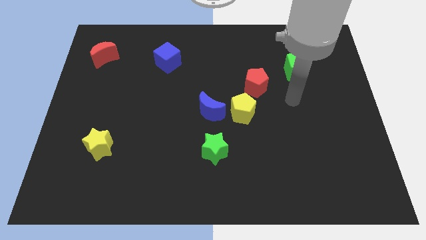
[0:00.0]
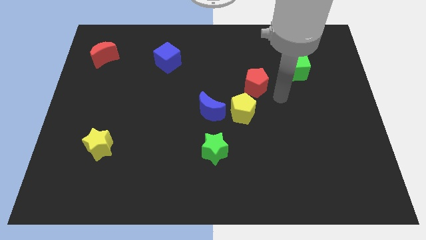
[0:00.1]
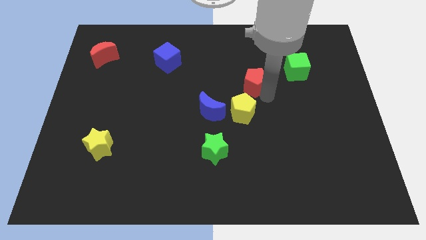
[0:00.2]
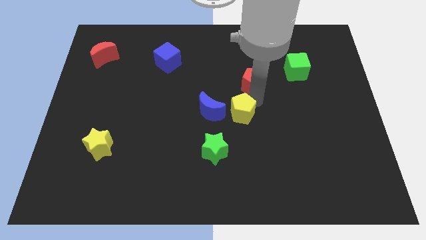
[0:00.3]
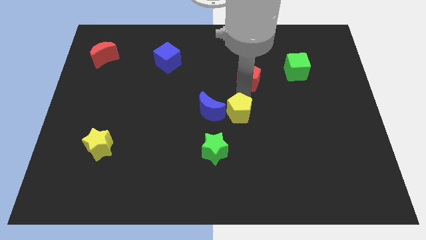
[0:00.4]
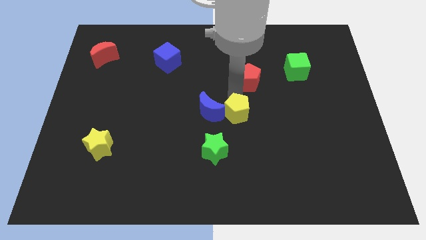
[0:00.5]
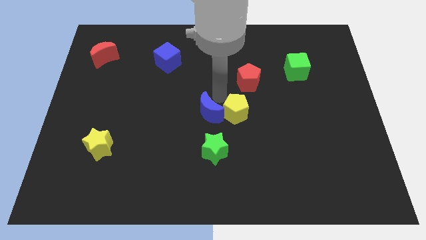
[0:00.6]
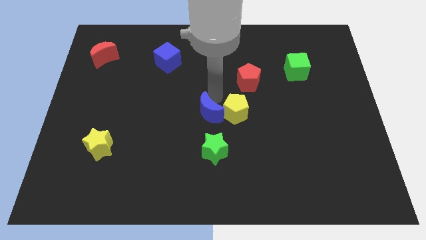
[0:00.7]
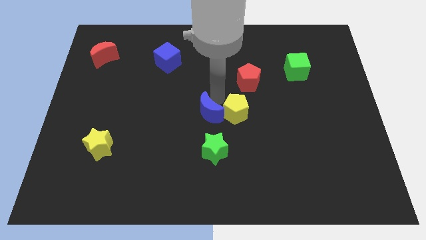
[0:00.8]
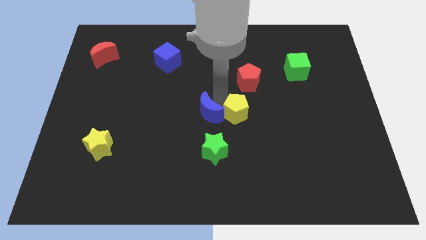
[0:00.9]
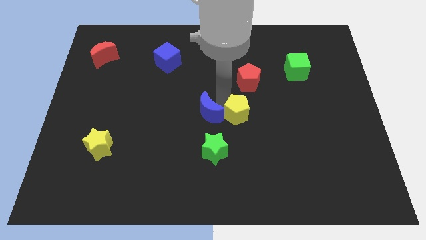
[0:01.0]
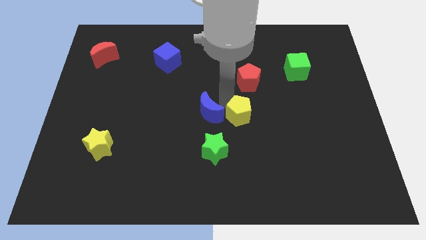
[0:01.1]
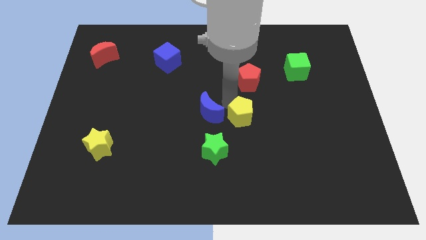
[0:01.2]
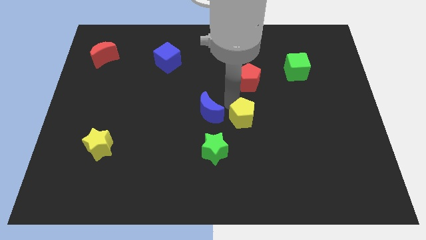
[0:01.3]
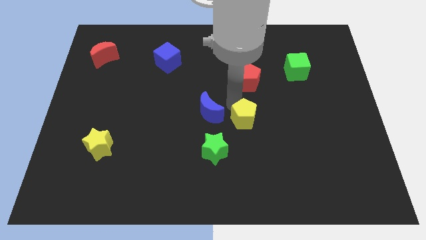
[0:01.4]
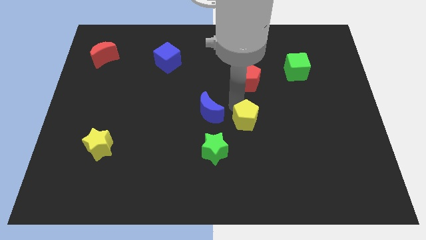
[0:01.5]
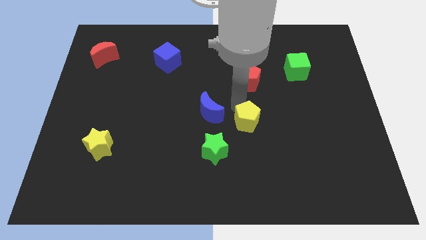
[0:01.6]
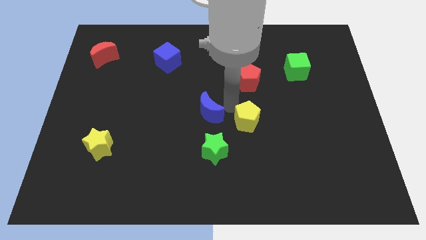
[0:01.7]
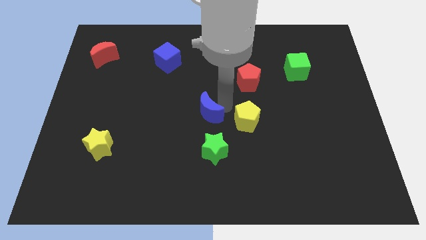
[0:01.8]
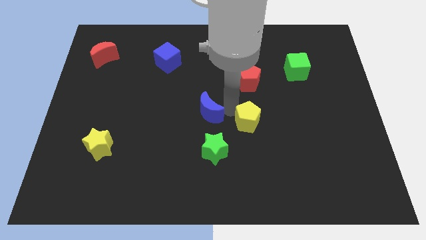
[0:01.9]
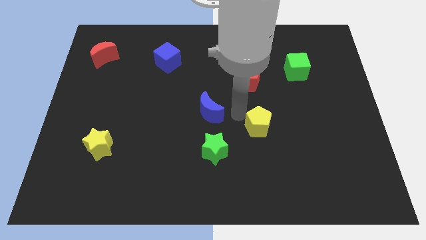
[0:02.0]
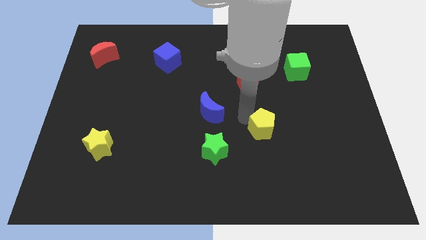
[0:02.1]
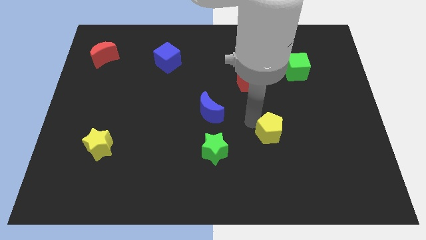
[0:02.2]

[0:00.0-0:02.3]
move the yellow pentagon a little down and right

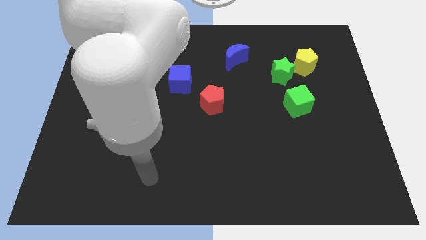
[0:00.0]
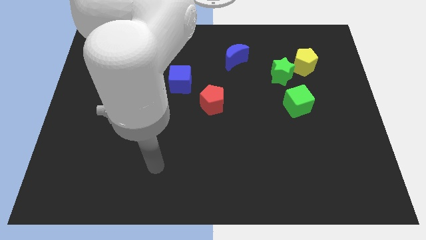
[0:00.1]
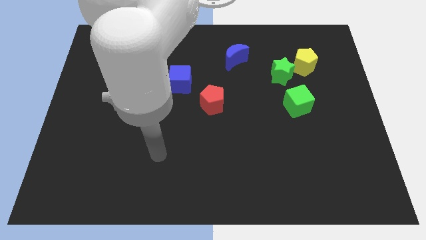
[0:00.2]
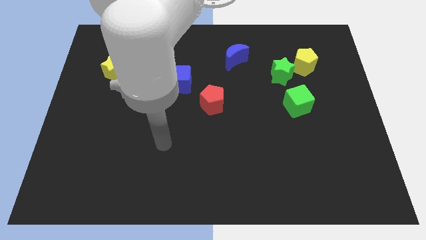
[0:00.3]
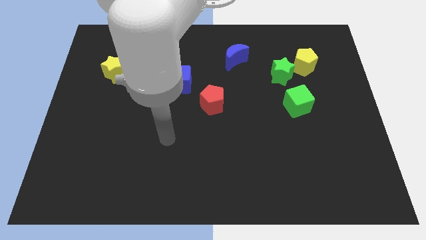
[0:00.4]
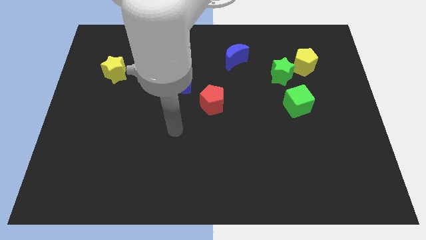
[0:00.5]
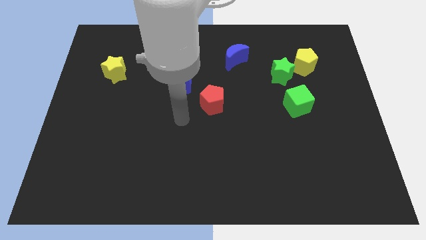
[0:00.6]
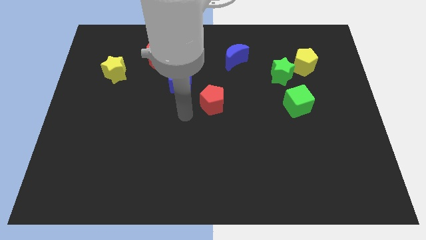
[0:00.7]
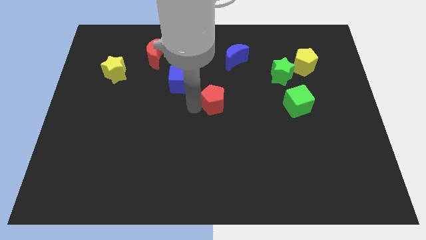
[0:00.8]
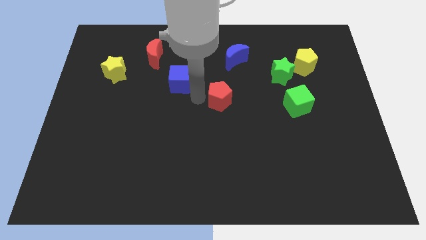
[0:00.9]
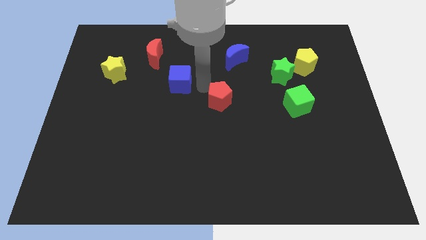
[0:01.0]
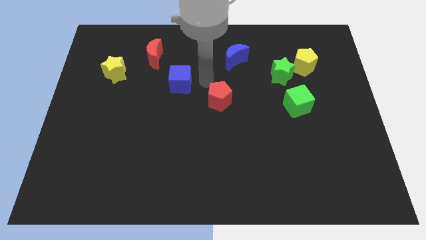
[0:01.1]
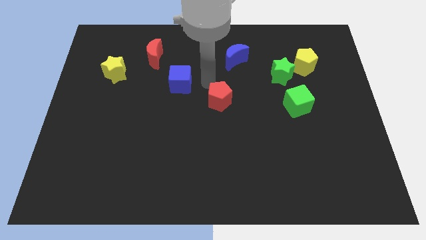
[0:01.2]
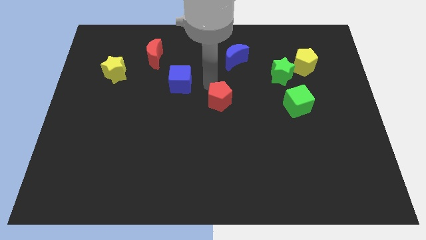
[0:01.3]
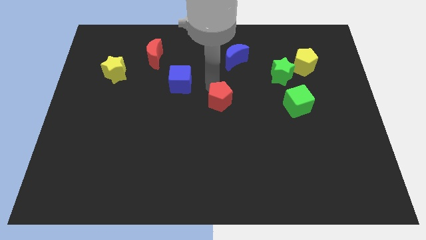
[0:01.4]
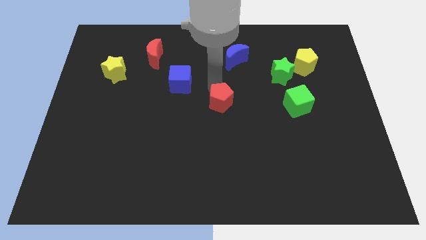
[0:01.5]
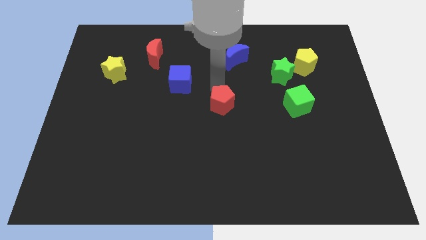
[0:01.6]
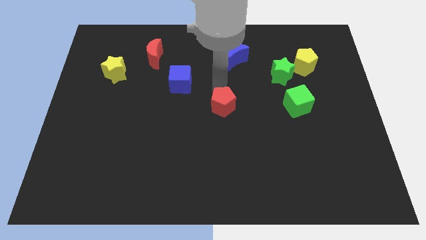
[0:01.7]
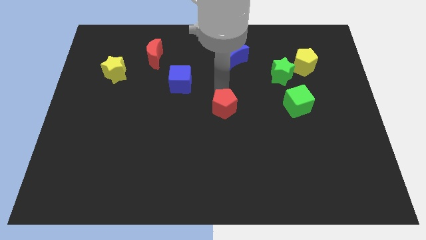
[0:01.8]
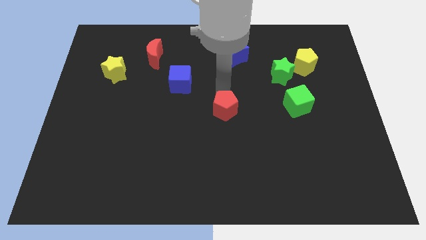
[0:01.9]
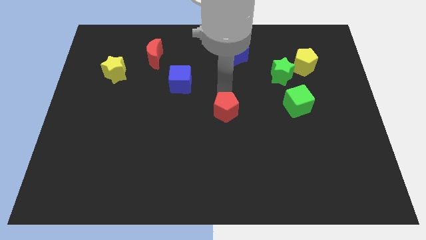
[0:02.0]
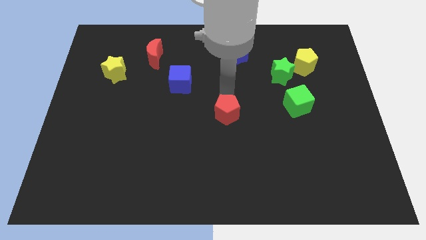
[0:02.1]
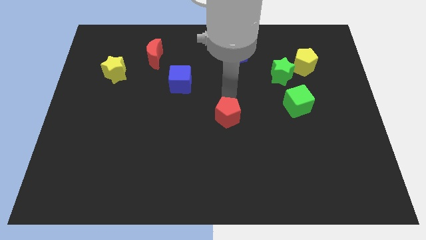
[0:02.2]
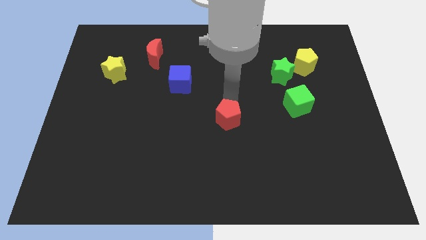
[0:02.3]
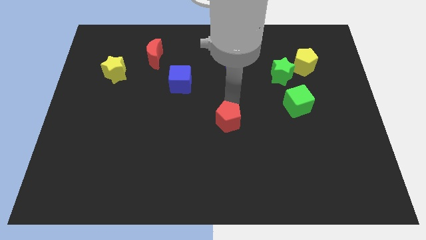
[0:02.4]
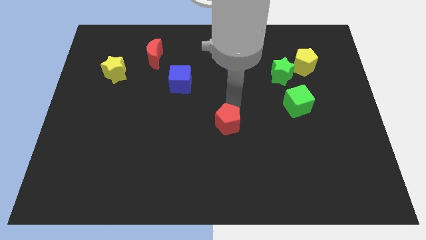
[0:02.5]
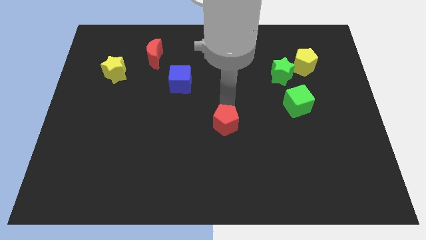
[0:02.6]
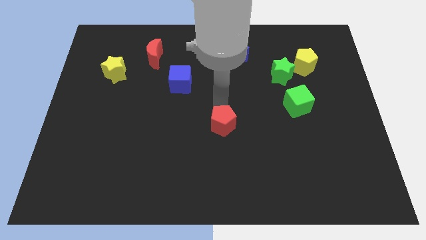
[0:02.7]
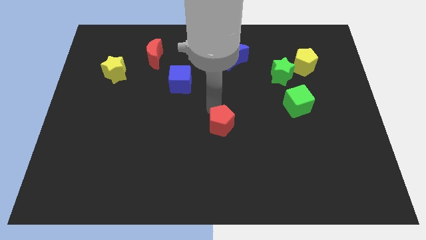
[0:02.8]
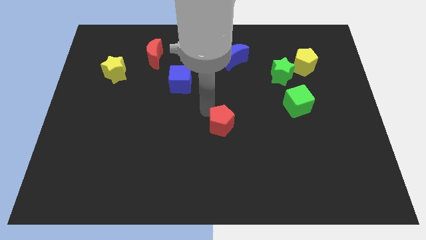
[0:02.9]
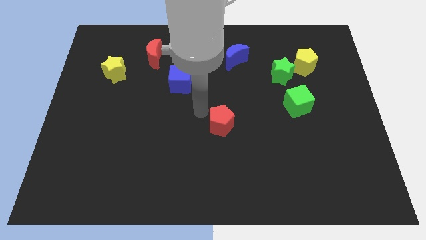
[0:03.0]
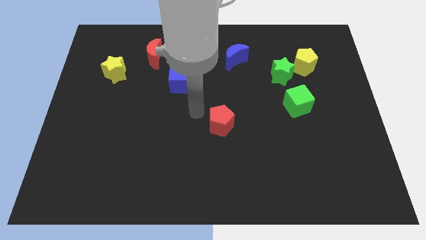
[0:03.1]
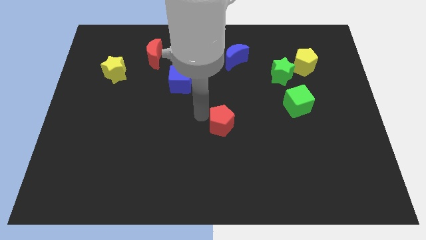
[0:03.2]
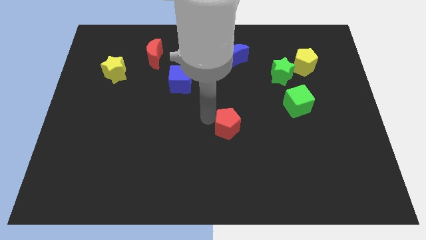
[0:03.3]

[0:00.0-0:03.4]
slide the red pentagon down and right a bit

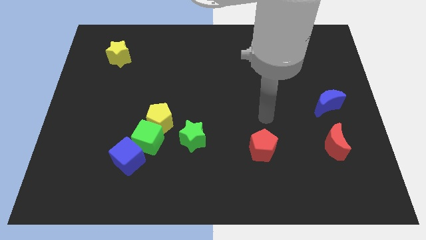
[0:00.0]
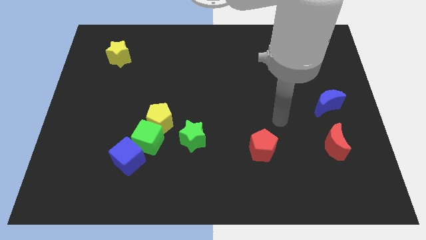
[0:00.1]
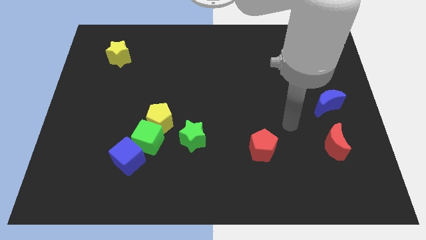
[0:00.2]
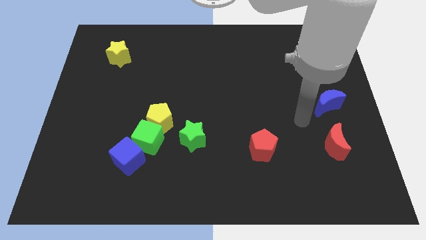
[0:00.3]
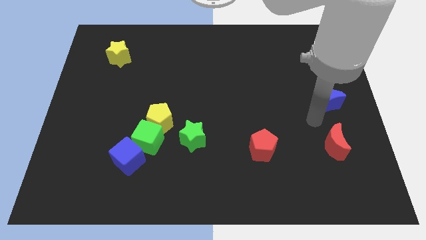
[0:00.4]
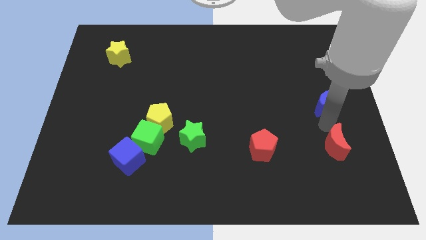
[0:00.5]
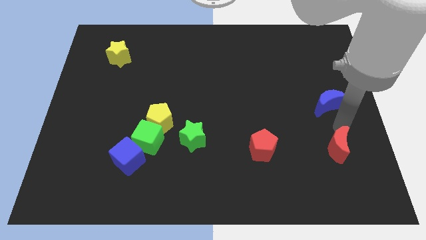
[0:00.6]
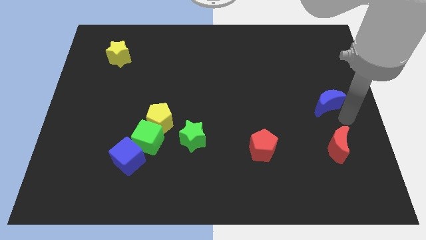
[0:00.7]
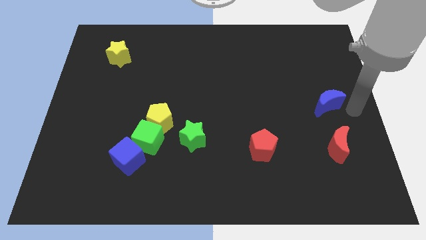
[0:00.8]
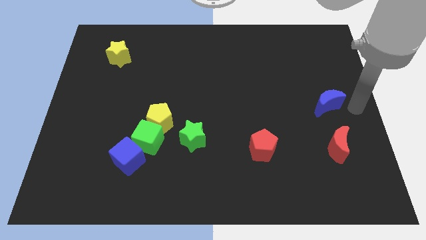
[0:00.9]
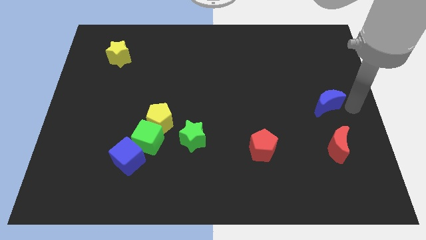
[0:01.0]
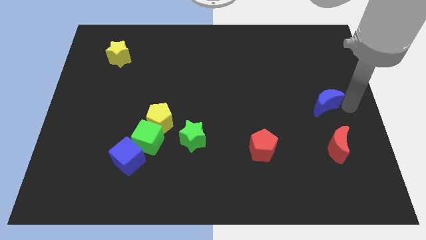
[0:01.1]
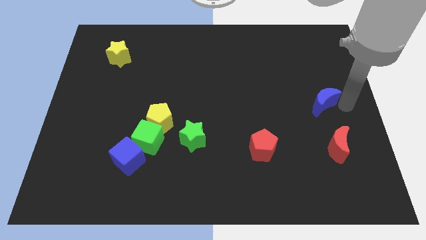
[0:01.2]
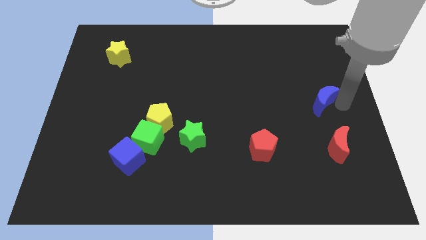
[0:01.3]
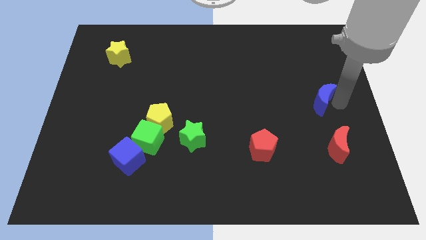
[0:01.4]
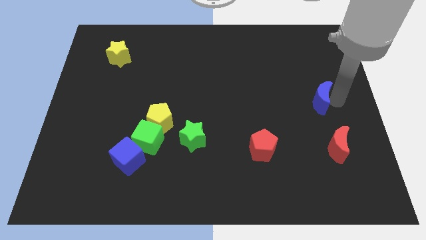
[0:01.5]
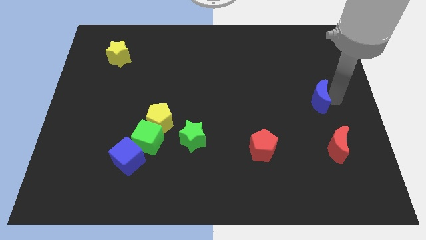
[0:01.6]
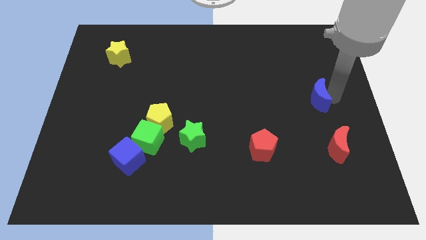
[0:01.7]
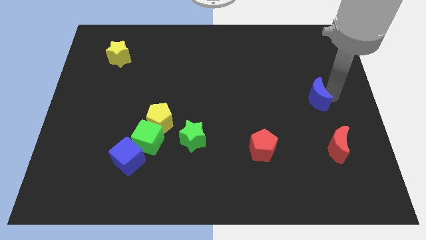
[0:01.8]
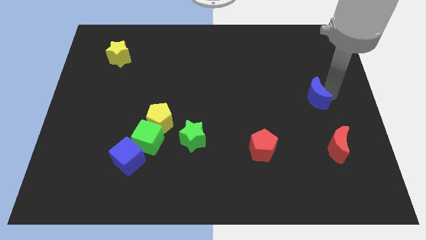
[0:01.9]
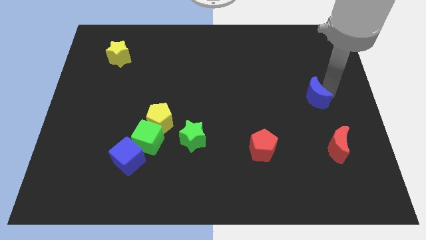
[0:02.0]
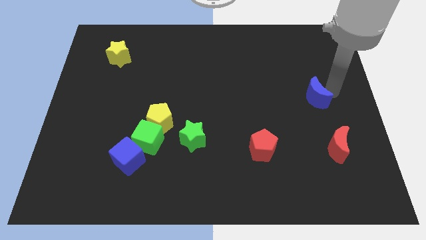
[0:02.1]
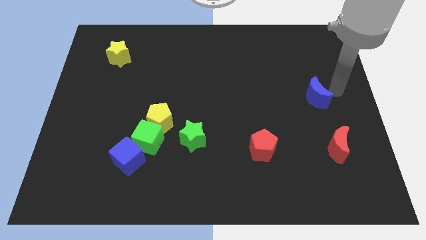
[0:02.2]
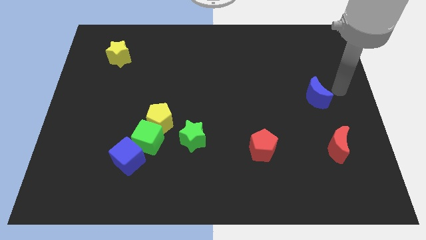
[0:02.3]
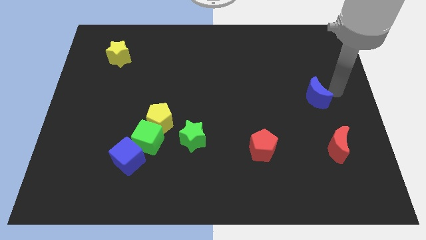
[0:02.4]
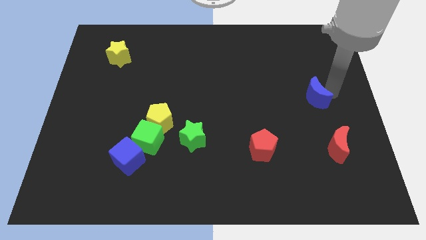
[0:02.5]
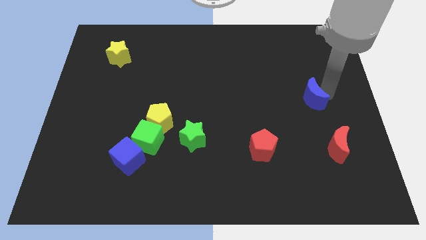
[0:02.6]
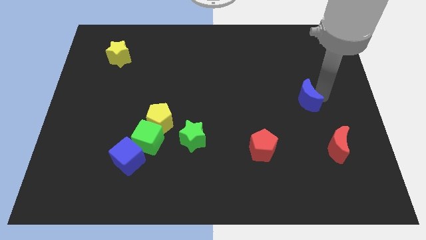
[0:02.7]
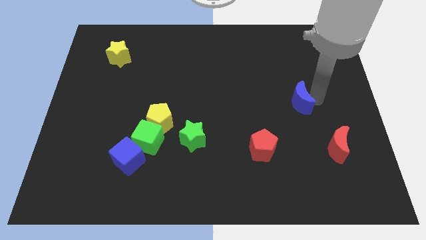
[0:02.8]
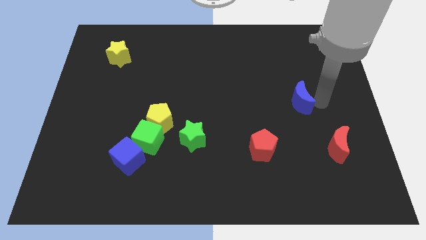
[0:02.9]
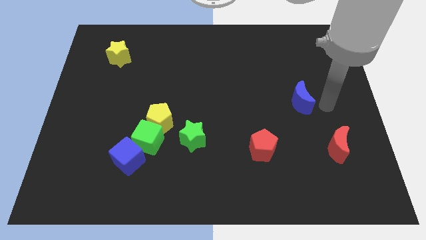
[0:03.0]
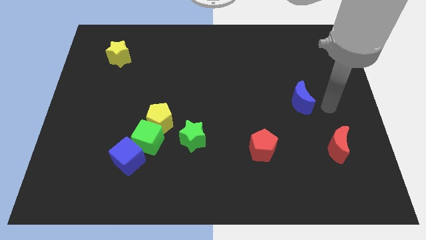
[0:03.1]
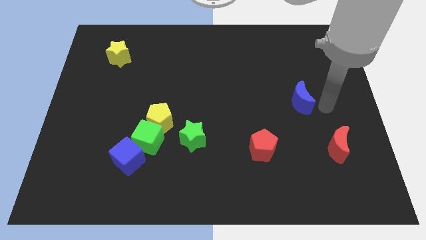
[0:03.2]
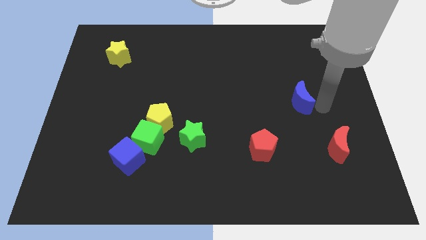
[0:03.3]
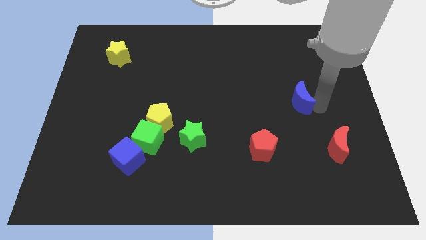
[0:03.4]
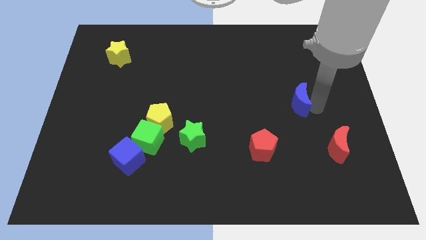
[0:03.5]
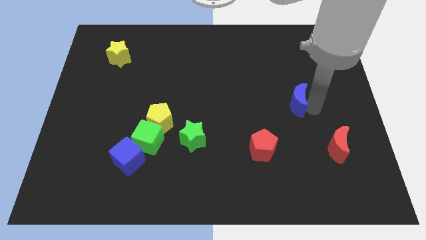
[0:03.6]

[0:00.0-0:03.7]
push the blue moon left slightly
